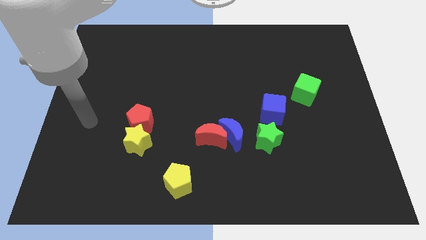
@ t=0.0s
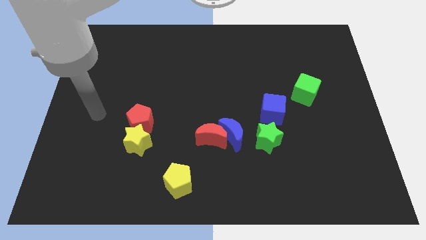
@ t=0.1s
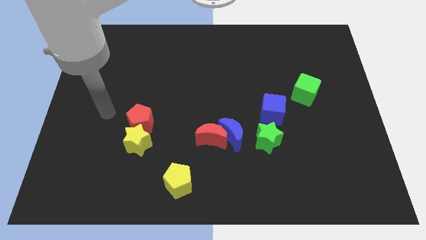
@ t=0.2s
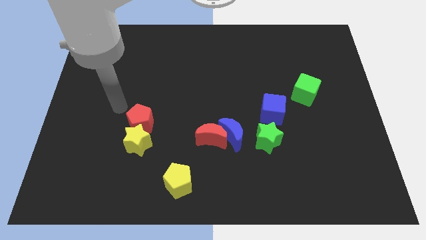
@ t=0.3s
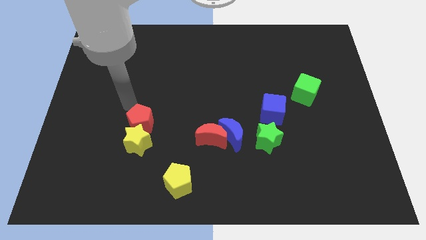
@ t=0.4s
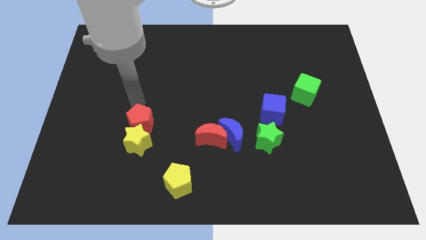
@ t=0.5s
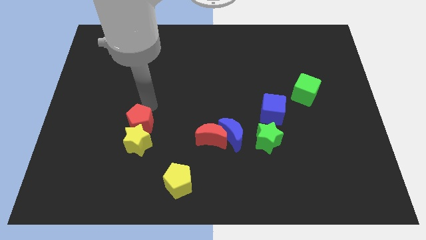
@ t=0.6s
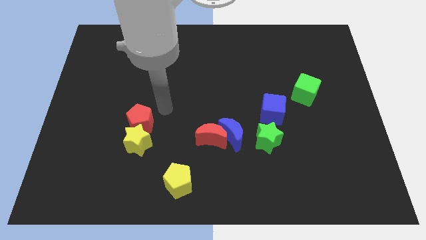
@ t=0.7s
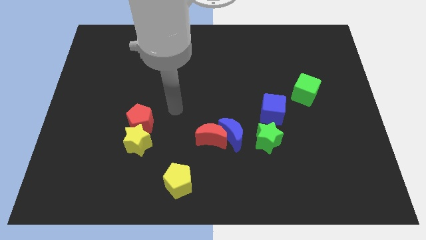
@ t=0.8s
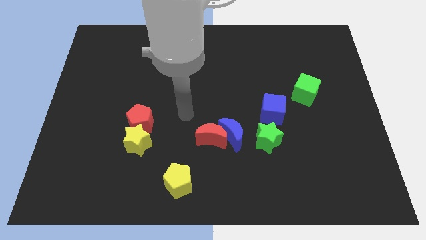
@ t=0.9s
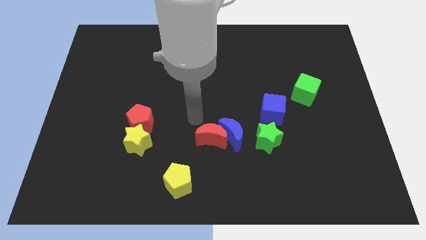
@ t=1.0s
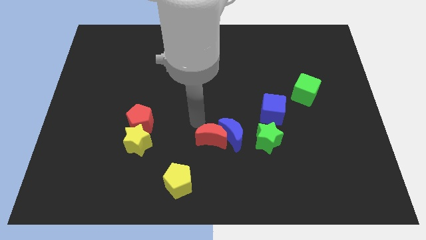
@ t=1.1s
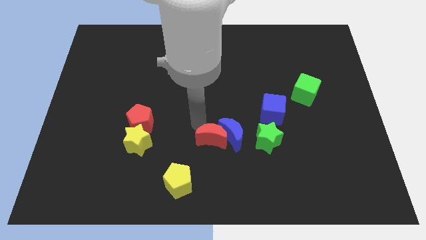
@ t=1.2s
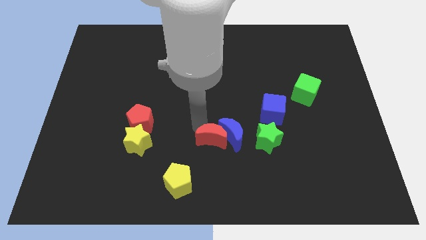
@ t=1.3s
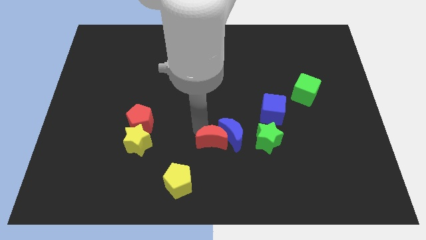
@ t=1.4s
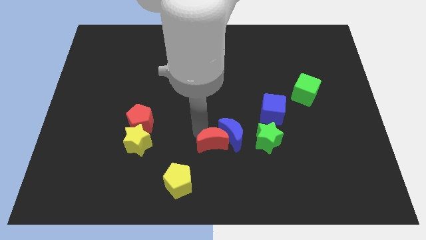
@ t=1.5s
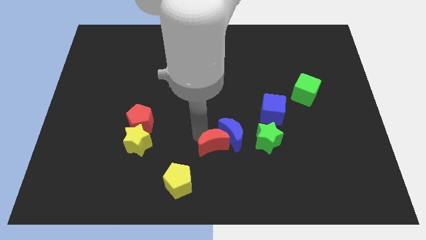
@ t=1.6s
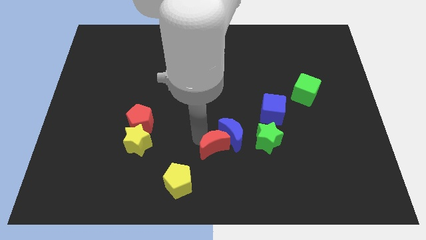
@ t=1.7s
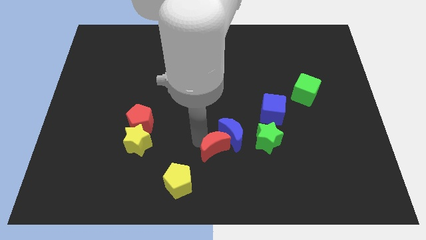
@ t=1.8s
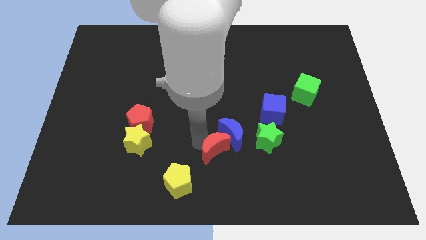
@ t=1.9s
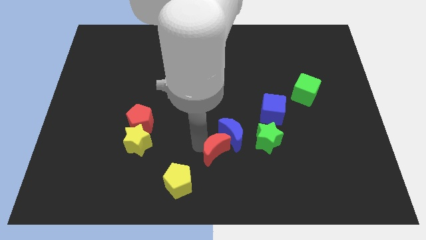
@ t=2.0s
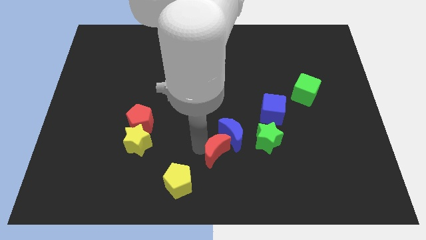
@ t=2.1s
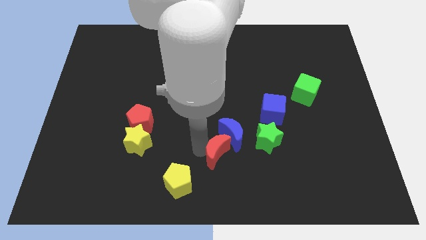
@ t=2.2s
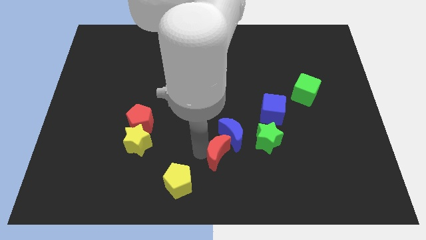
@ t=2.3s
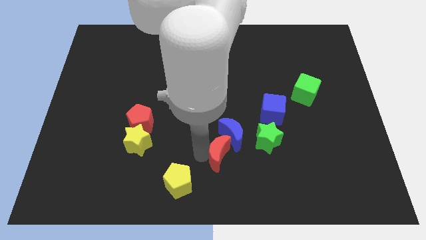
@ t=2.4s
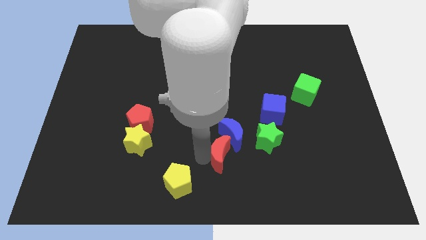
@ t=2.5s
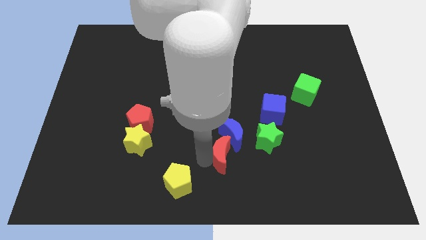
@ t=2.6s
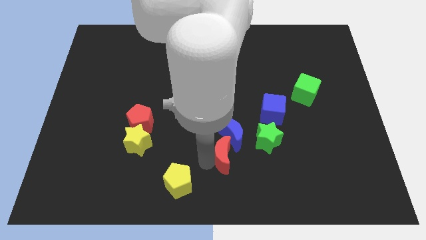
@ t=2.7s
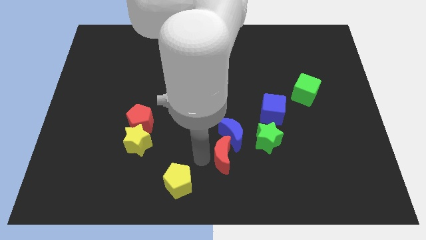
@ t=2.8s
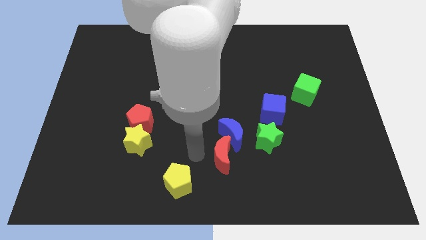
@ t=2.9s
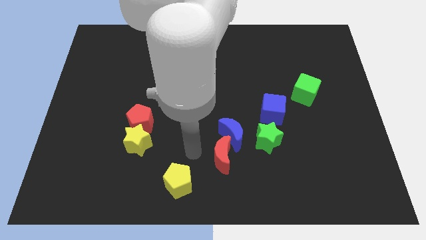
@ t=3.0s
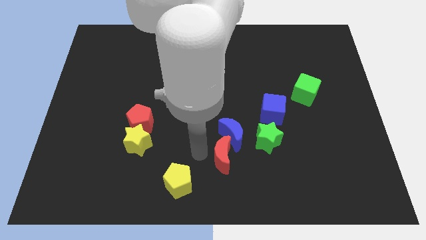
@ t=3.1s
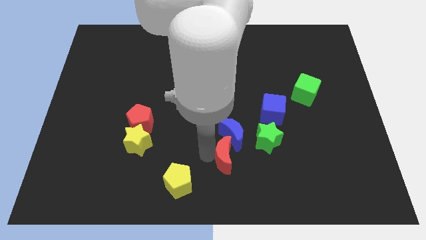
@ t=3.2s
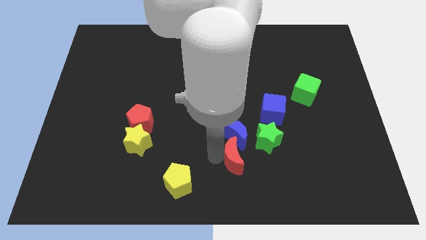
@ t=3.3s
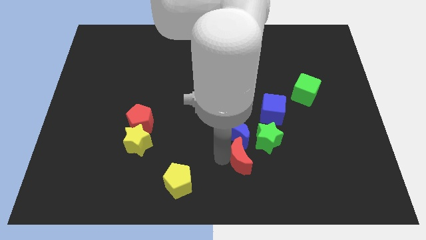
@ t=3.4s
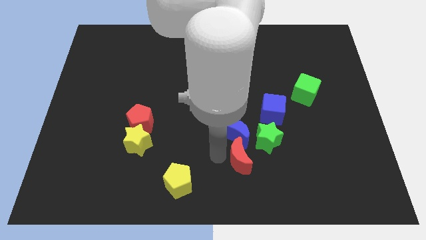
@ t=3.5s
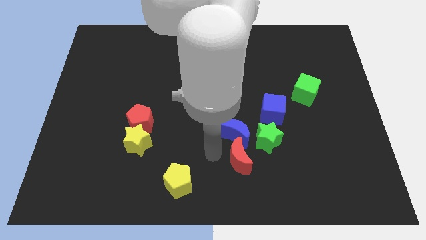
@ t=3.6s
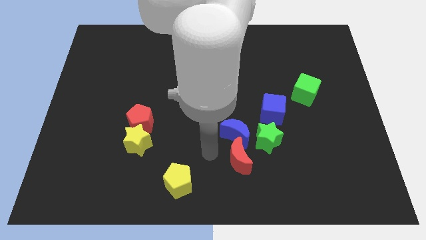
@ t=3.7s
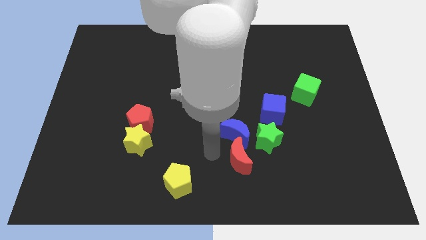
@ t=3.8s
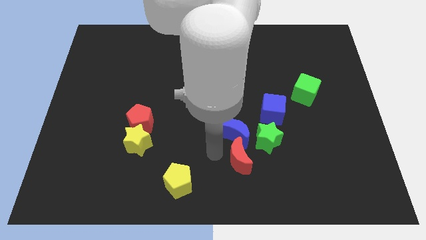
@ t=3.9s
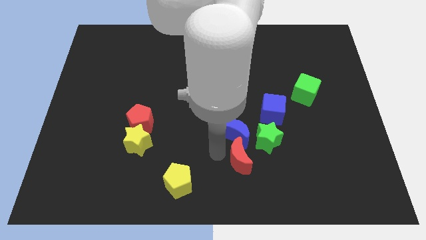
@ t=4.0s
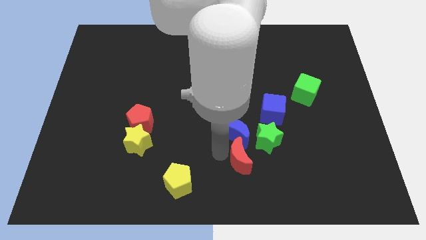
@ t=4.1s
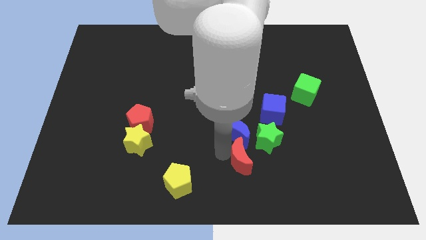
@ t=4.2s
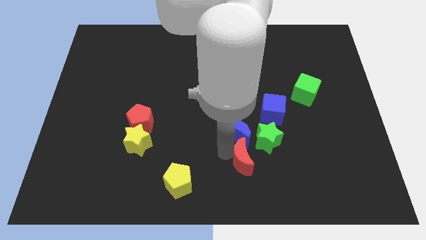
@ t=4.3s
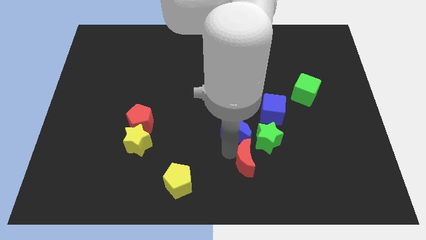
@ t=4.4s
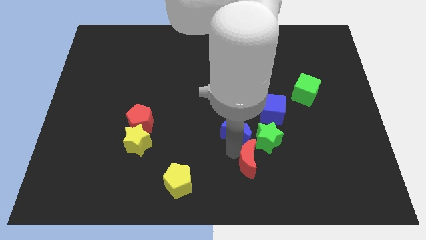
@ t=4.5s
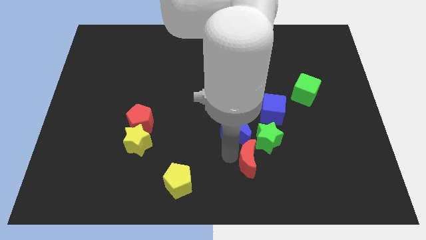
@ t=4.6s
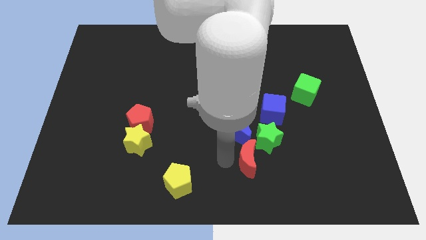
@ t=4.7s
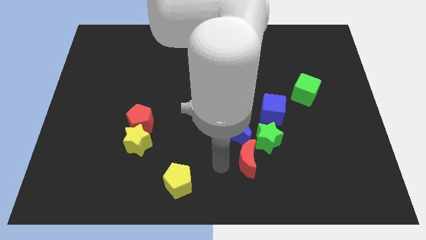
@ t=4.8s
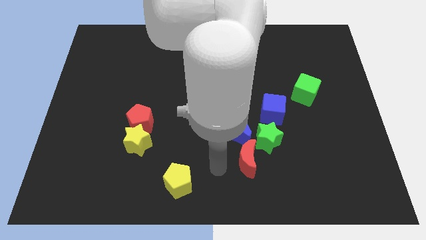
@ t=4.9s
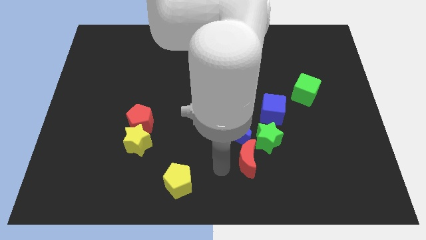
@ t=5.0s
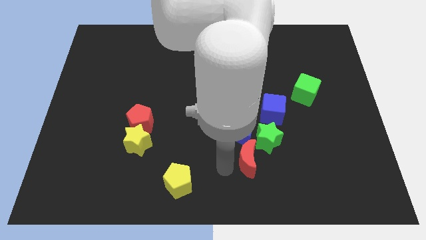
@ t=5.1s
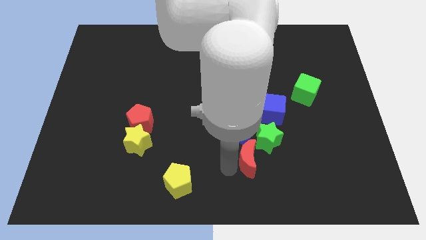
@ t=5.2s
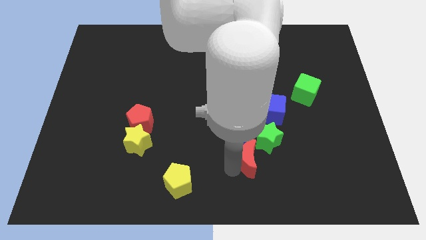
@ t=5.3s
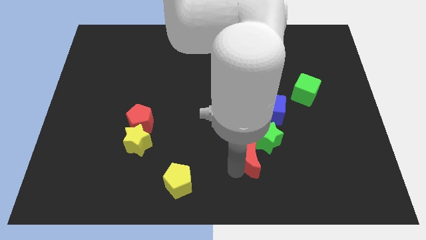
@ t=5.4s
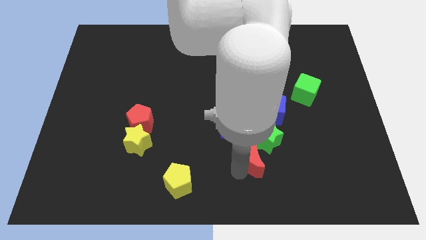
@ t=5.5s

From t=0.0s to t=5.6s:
slightly slide the red moon right

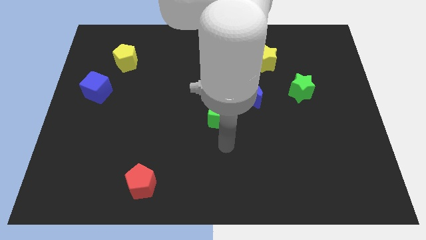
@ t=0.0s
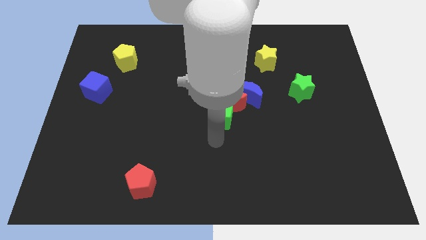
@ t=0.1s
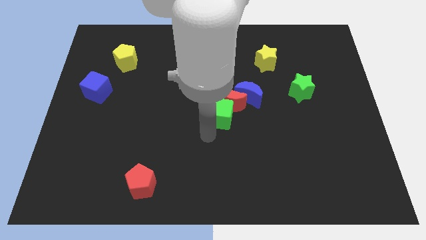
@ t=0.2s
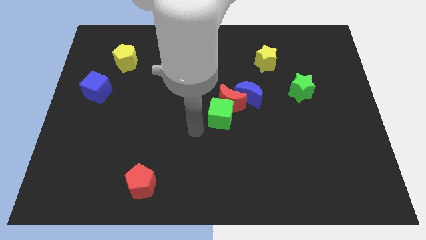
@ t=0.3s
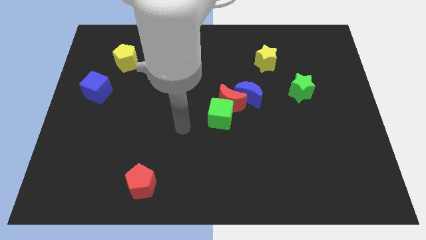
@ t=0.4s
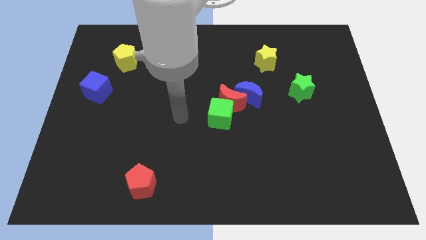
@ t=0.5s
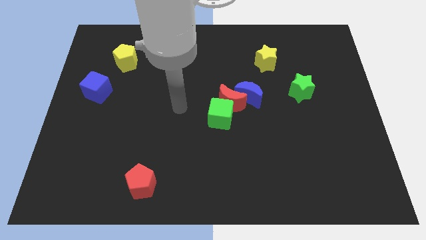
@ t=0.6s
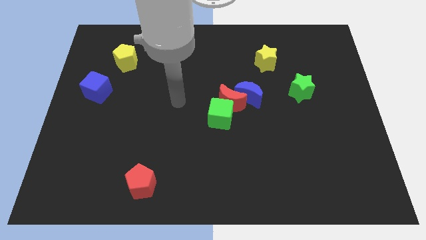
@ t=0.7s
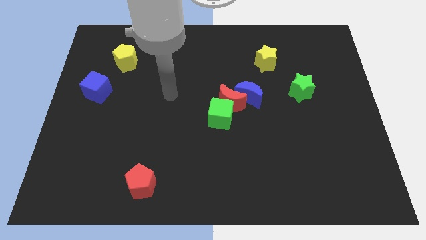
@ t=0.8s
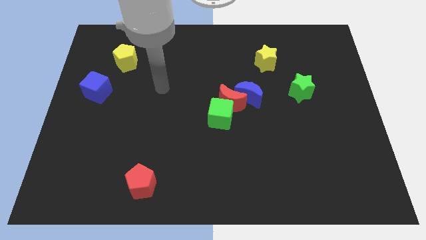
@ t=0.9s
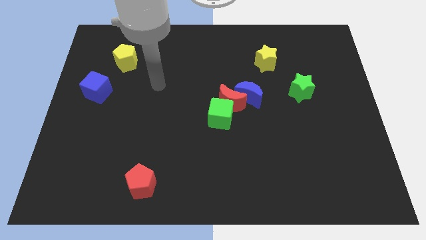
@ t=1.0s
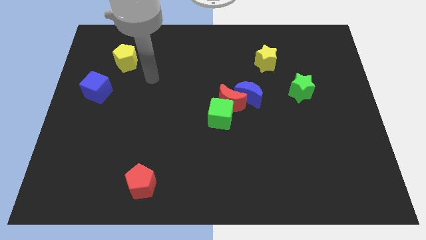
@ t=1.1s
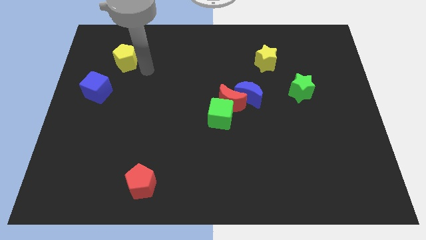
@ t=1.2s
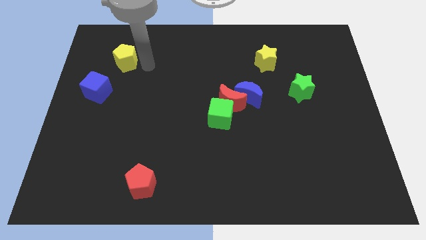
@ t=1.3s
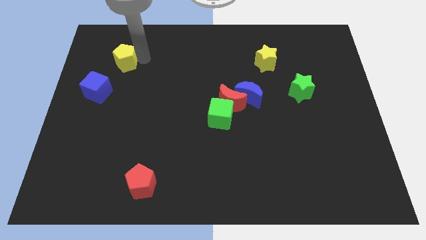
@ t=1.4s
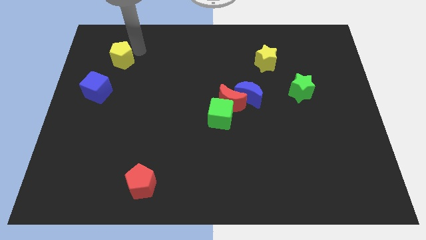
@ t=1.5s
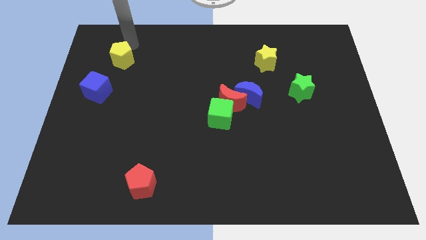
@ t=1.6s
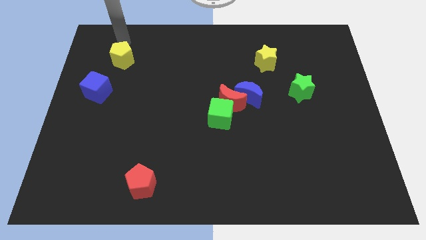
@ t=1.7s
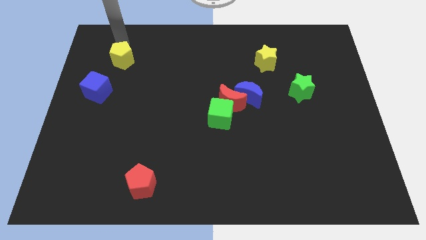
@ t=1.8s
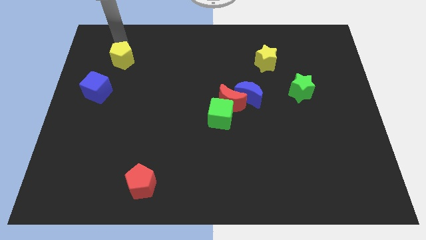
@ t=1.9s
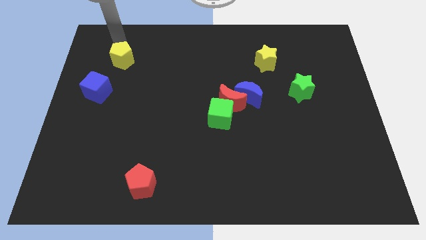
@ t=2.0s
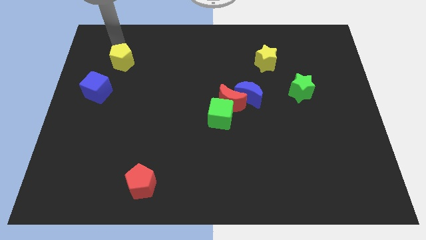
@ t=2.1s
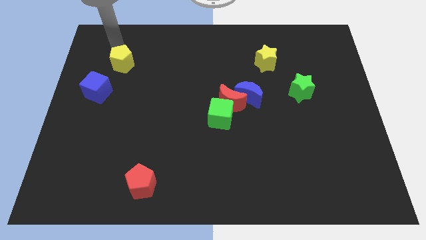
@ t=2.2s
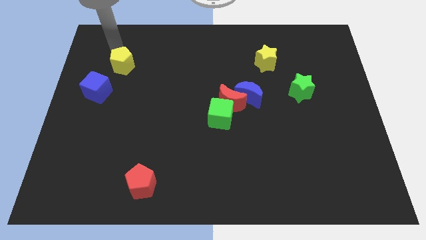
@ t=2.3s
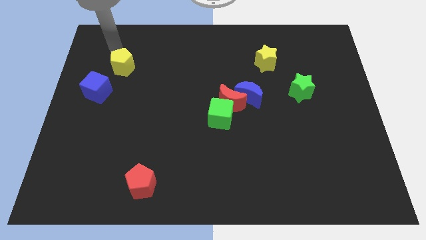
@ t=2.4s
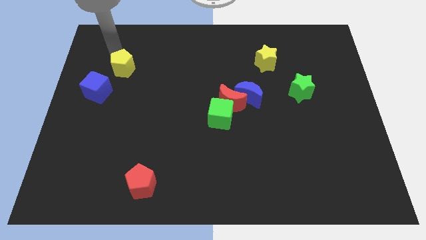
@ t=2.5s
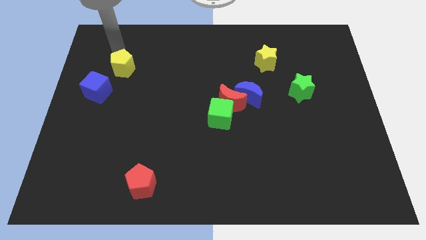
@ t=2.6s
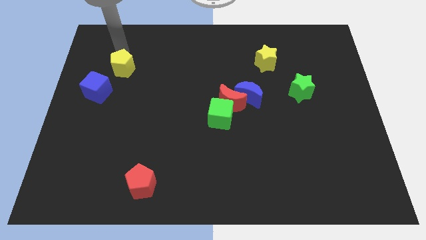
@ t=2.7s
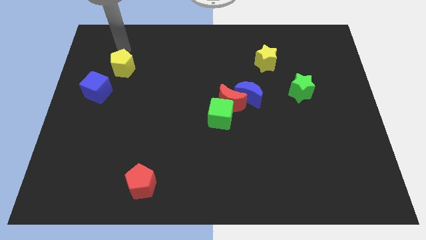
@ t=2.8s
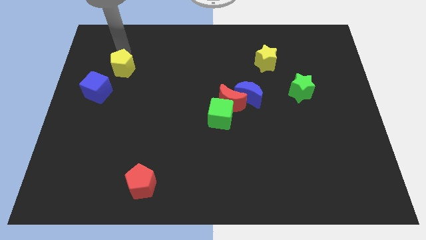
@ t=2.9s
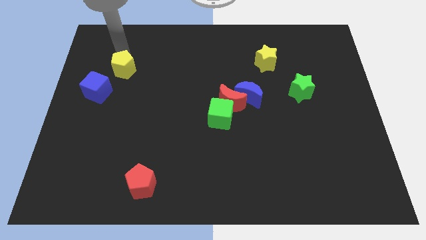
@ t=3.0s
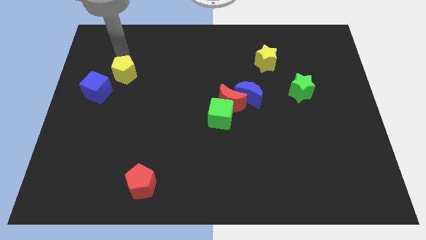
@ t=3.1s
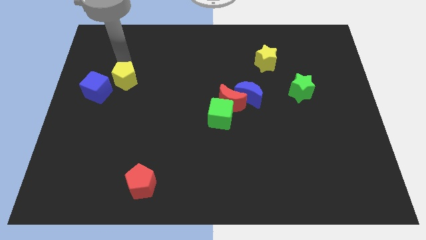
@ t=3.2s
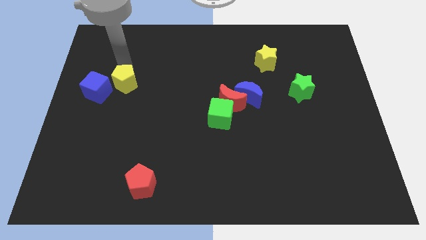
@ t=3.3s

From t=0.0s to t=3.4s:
push the yellow pentagon down a little bit
